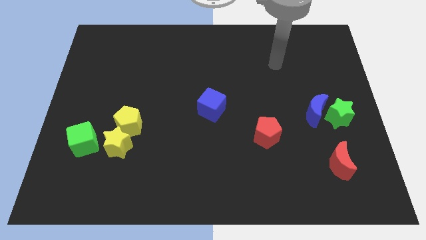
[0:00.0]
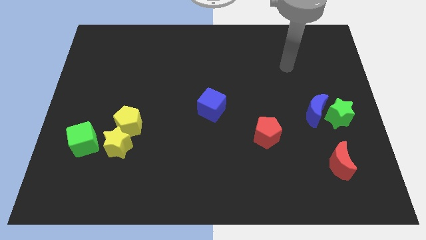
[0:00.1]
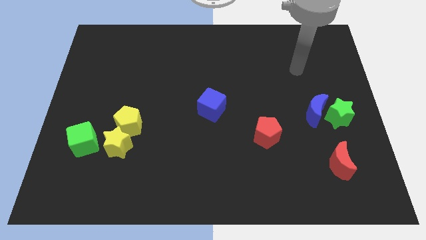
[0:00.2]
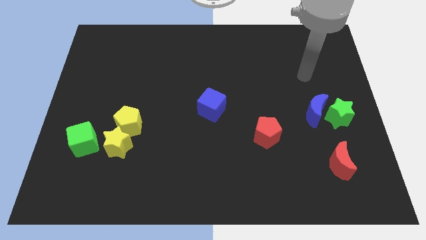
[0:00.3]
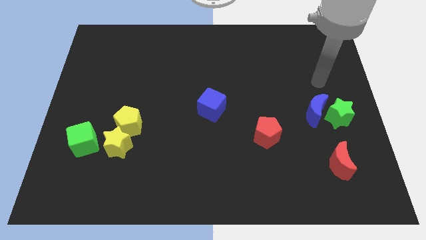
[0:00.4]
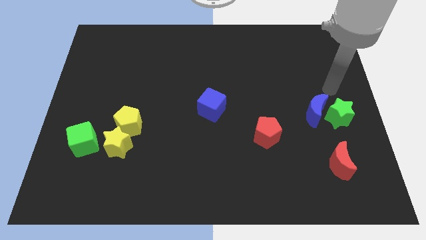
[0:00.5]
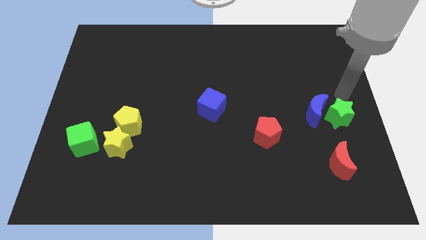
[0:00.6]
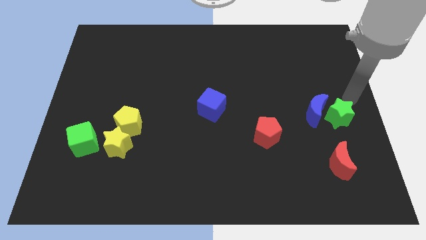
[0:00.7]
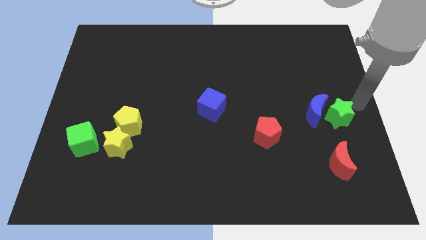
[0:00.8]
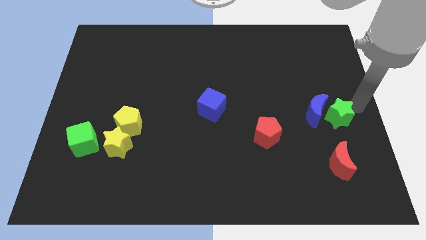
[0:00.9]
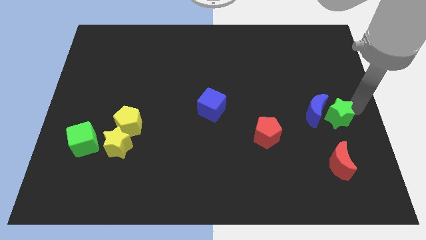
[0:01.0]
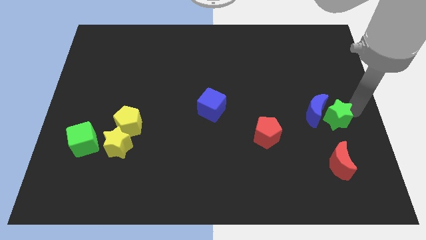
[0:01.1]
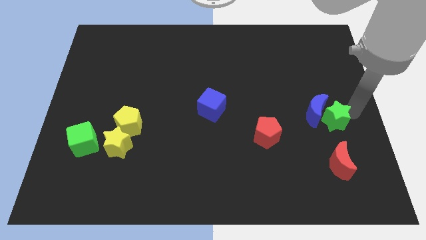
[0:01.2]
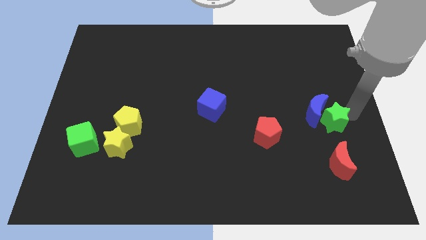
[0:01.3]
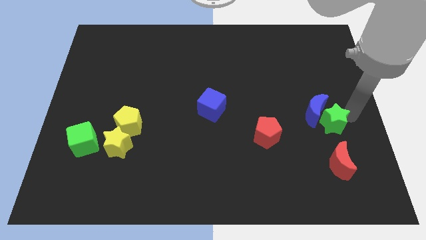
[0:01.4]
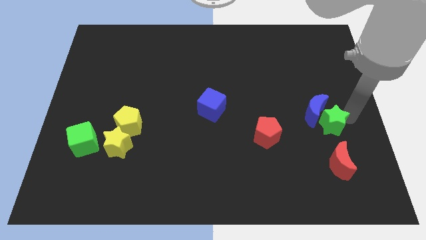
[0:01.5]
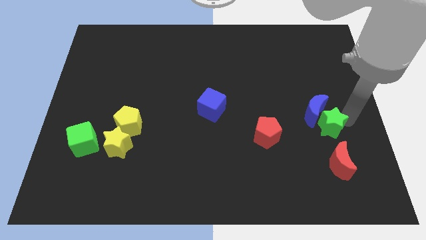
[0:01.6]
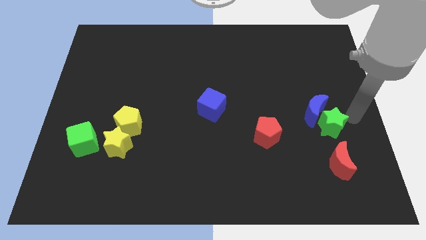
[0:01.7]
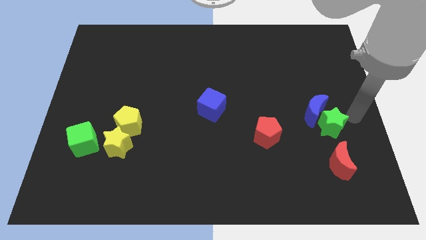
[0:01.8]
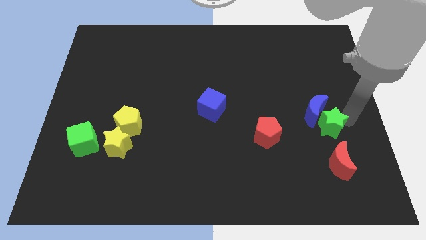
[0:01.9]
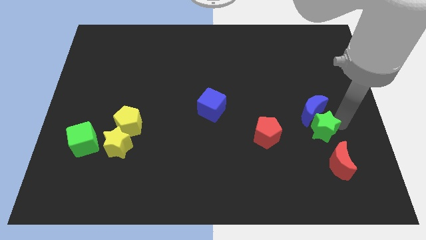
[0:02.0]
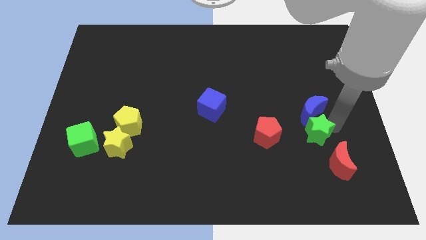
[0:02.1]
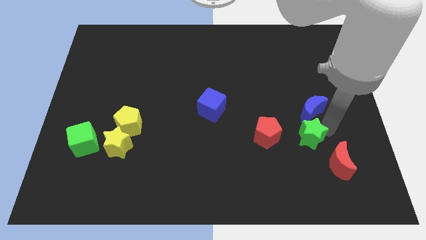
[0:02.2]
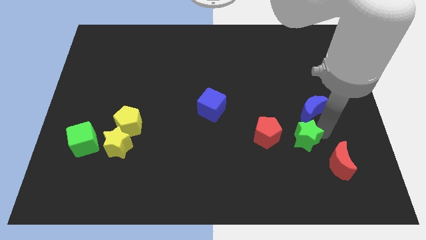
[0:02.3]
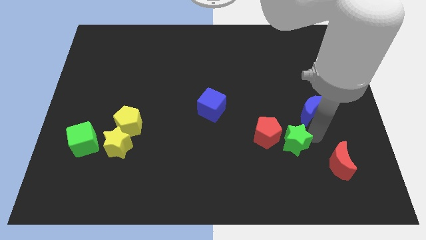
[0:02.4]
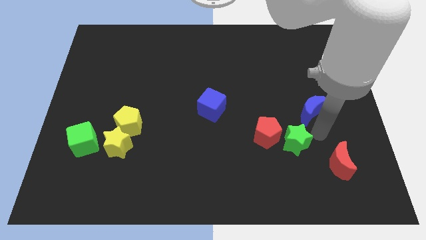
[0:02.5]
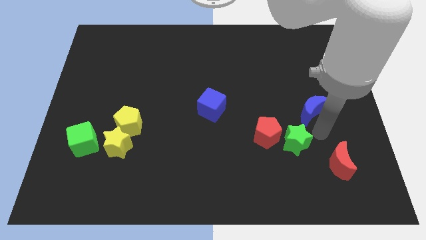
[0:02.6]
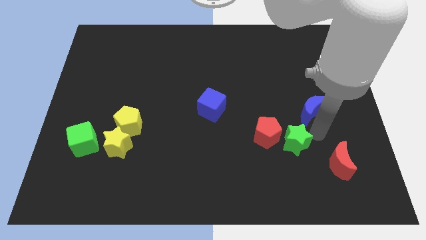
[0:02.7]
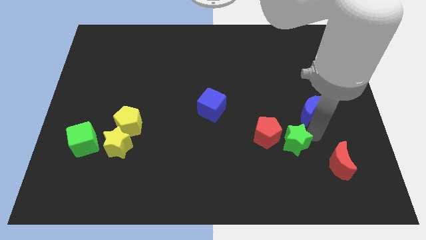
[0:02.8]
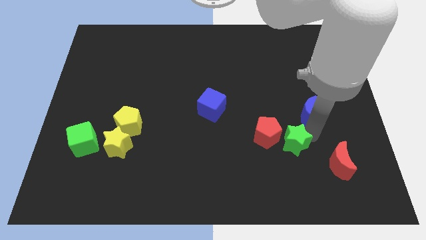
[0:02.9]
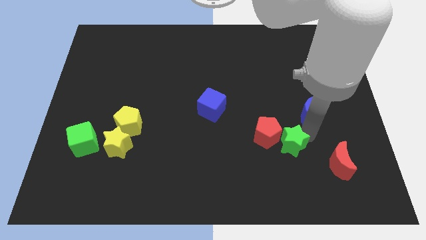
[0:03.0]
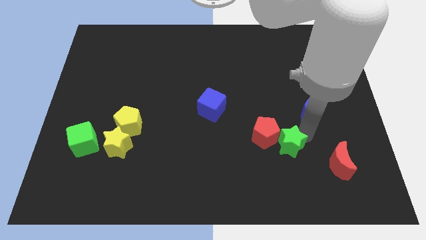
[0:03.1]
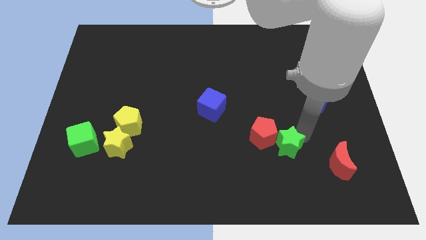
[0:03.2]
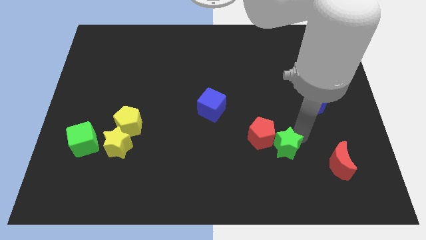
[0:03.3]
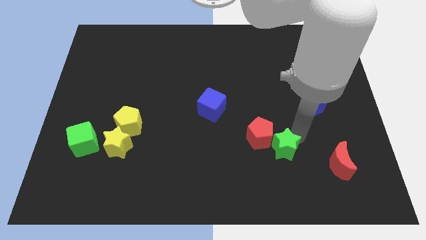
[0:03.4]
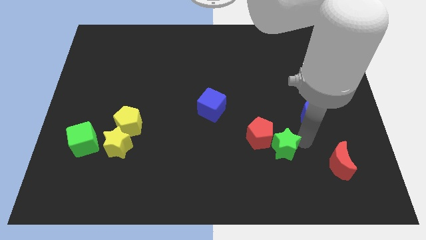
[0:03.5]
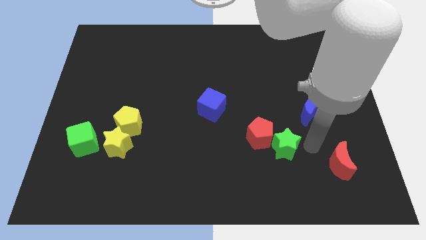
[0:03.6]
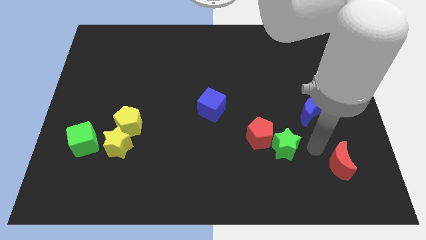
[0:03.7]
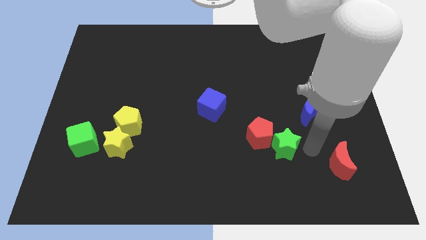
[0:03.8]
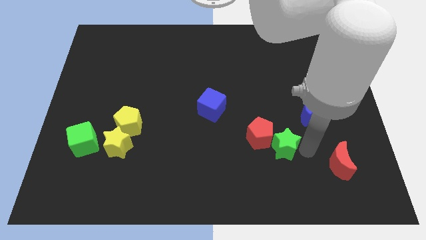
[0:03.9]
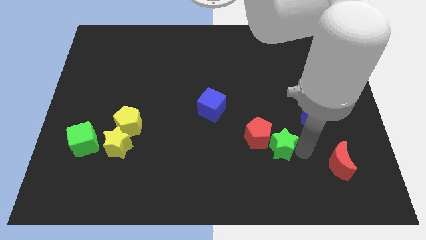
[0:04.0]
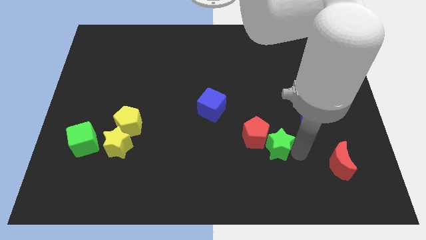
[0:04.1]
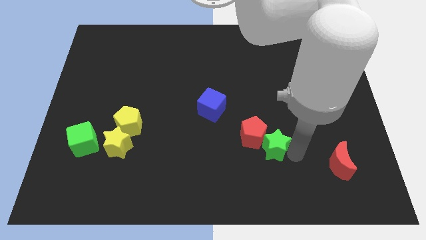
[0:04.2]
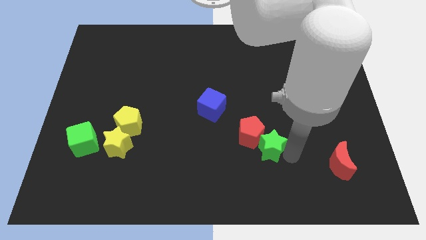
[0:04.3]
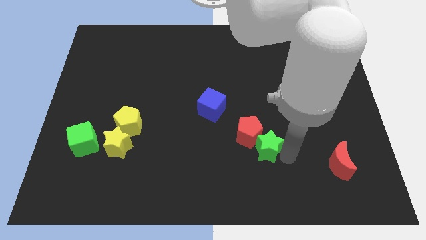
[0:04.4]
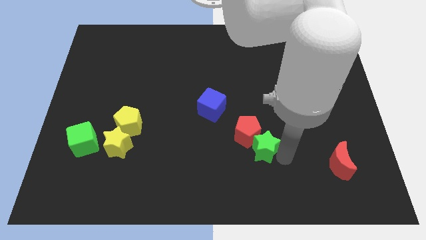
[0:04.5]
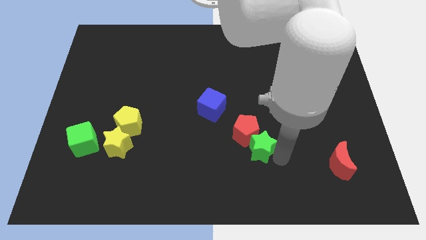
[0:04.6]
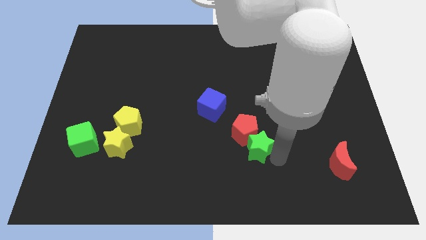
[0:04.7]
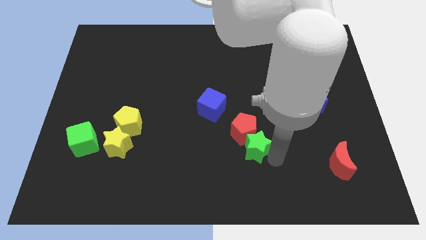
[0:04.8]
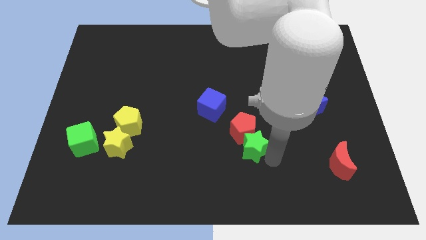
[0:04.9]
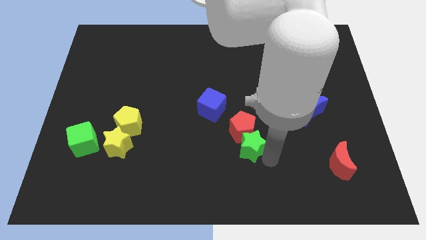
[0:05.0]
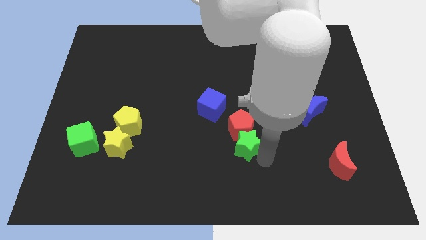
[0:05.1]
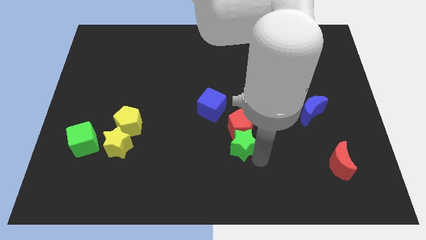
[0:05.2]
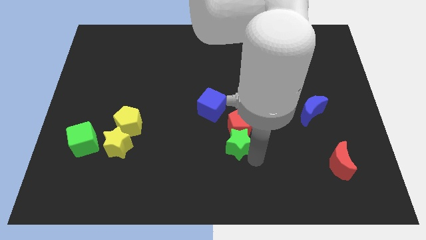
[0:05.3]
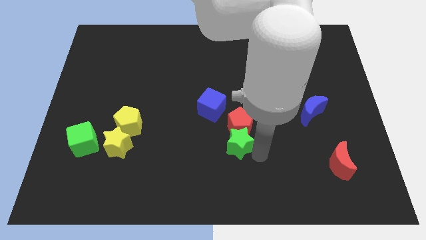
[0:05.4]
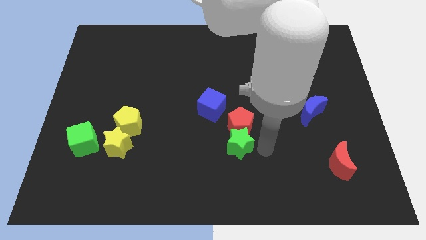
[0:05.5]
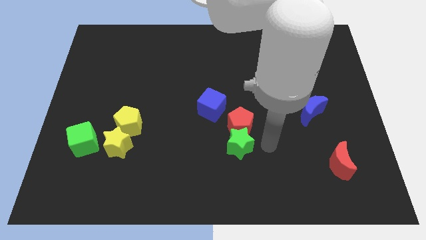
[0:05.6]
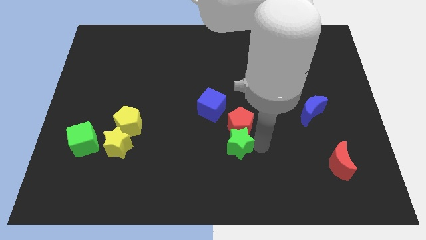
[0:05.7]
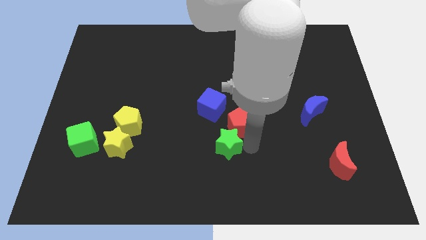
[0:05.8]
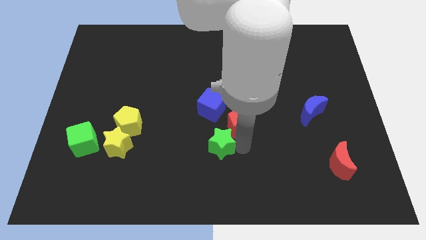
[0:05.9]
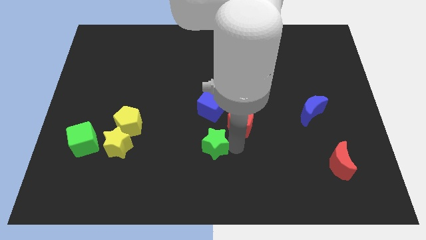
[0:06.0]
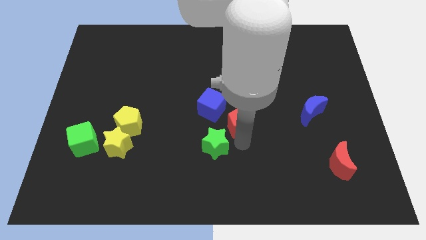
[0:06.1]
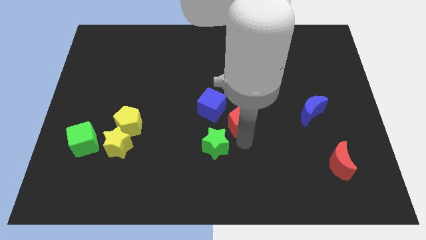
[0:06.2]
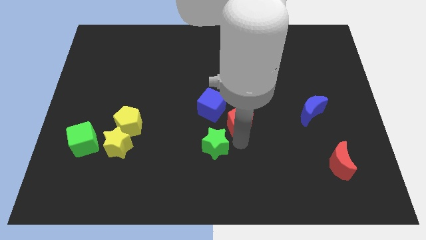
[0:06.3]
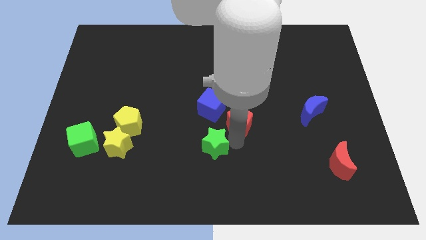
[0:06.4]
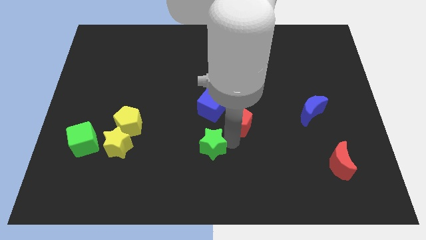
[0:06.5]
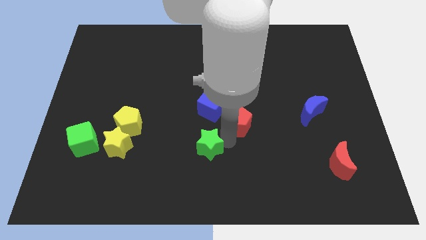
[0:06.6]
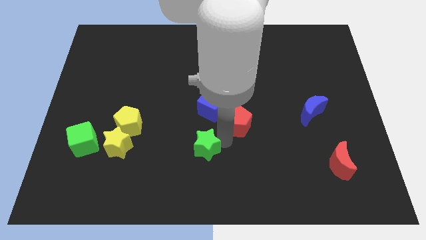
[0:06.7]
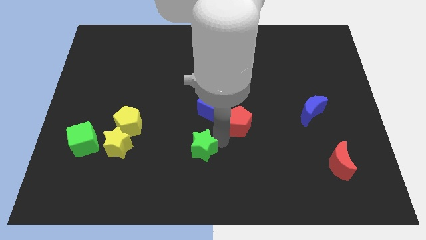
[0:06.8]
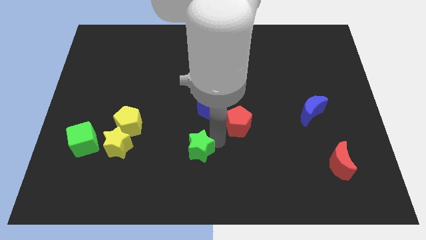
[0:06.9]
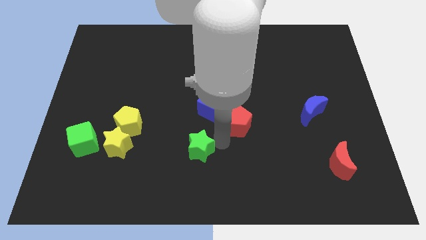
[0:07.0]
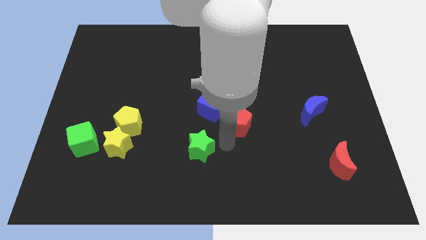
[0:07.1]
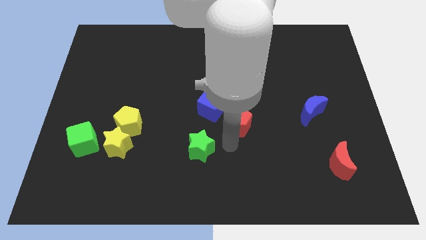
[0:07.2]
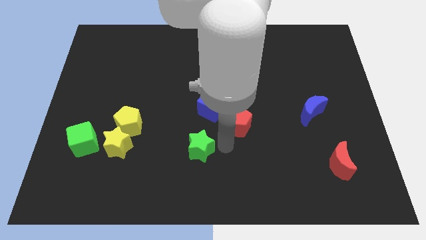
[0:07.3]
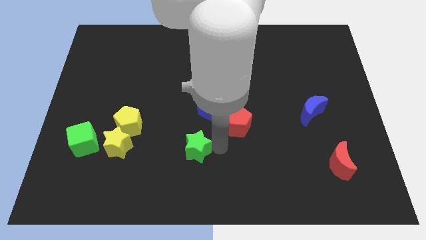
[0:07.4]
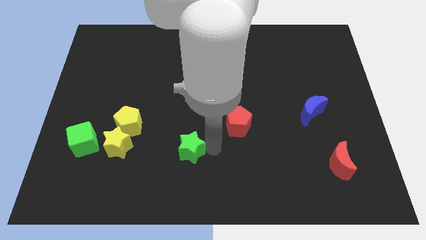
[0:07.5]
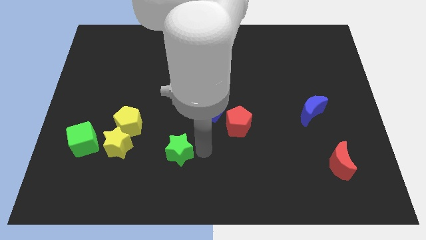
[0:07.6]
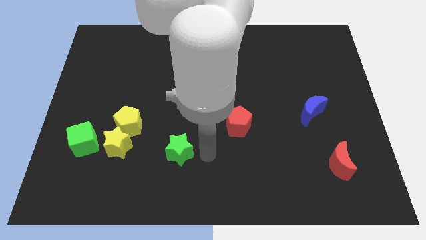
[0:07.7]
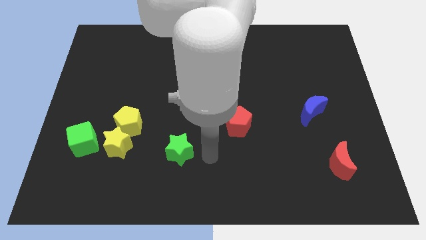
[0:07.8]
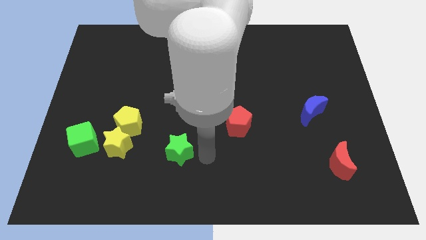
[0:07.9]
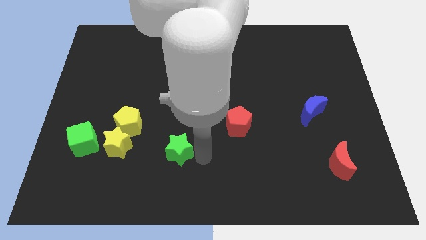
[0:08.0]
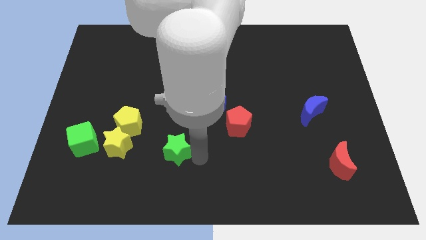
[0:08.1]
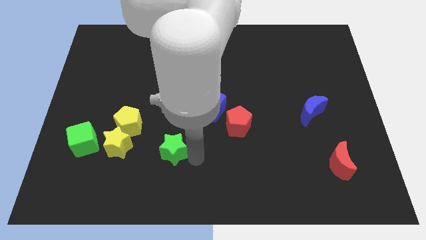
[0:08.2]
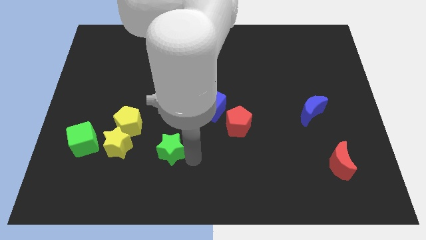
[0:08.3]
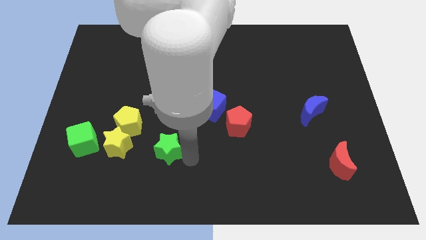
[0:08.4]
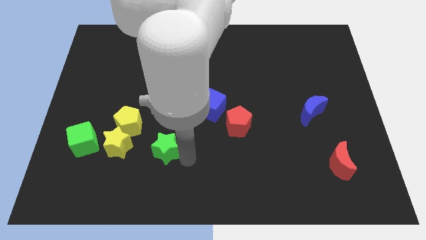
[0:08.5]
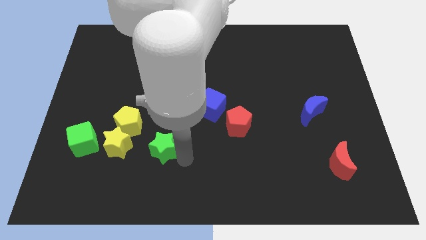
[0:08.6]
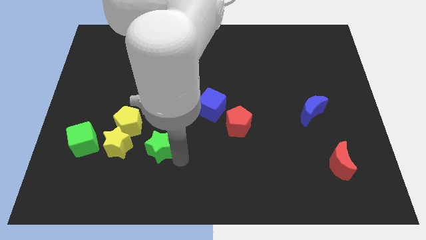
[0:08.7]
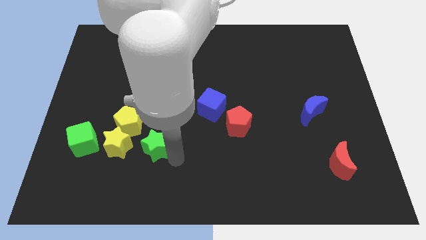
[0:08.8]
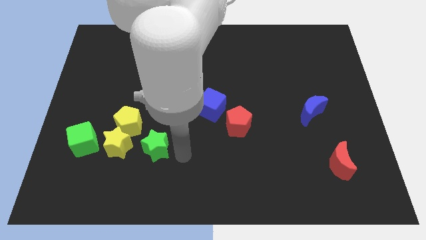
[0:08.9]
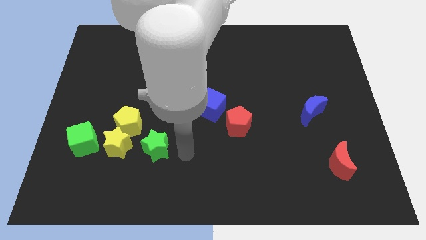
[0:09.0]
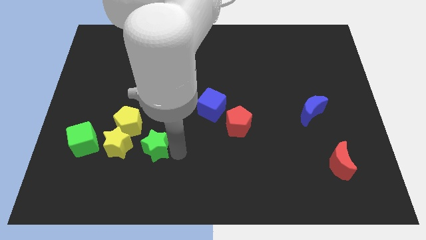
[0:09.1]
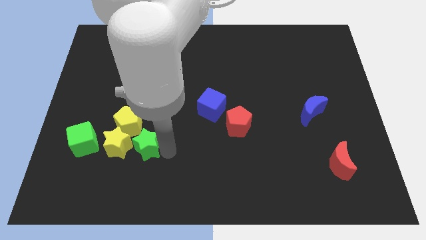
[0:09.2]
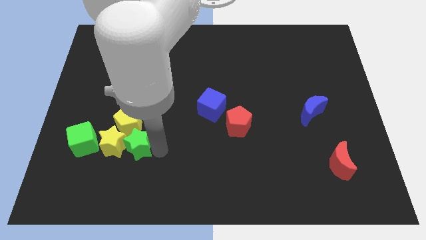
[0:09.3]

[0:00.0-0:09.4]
move the green star towards the yellow star
